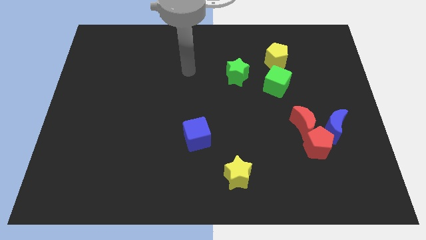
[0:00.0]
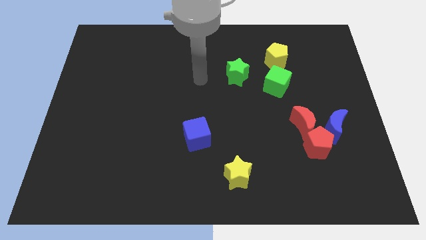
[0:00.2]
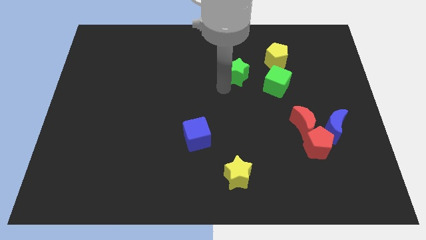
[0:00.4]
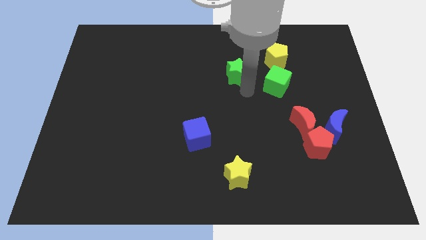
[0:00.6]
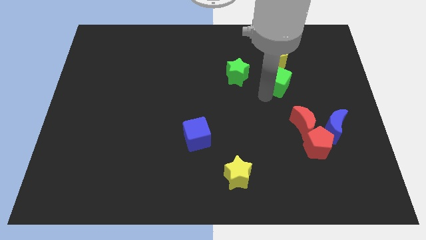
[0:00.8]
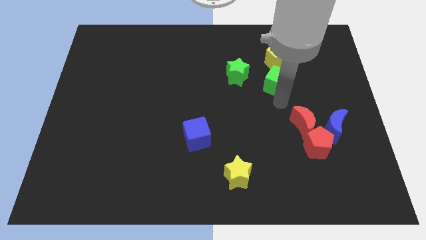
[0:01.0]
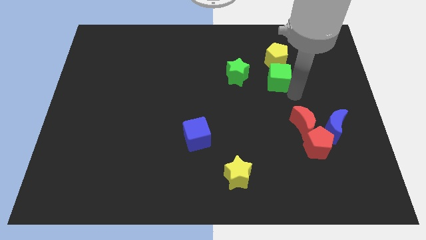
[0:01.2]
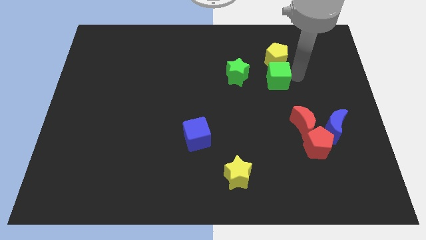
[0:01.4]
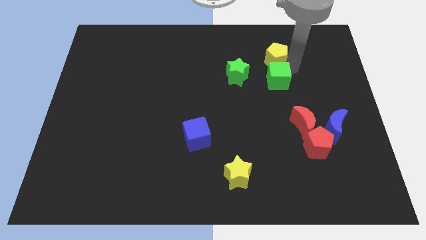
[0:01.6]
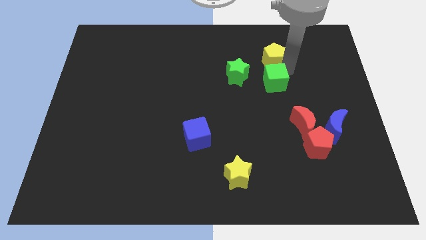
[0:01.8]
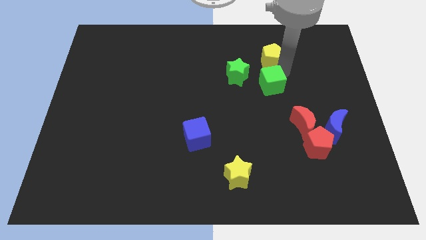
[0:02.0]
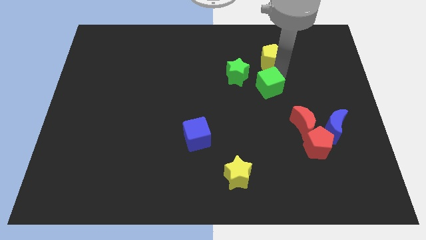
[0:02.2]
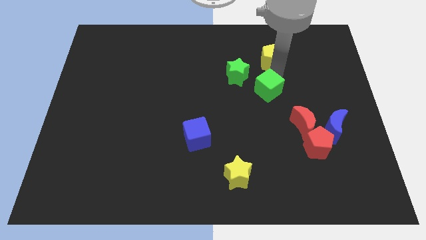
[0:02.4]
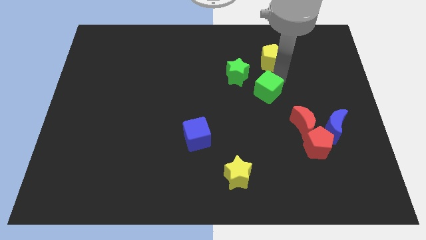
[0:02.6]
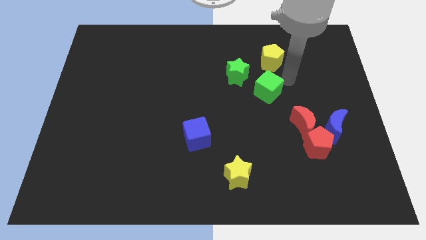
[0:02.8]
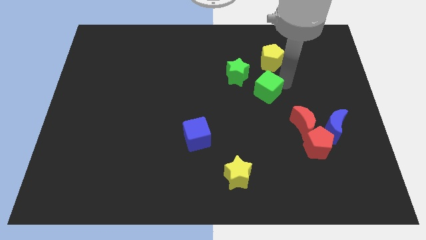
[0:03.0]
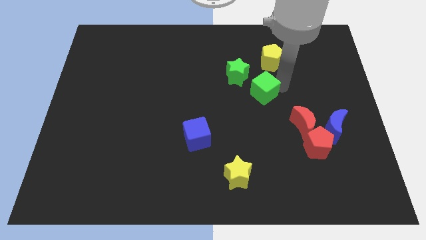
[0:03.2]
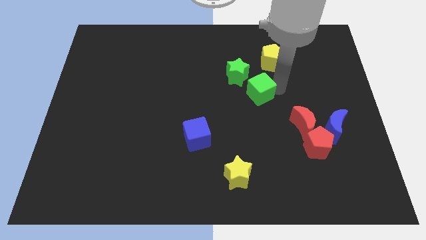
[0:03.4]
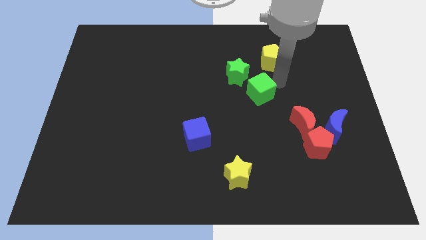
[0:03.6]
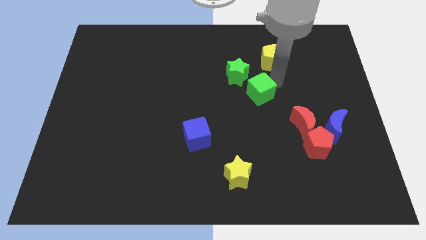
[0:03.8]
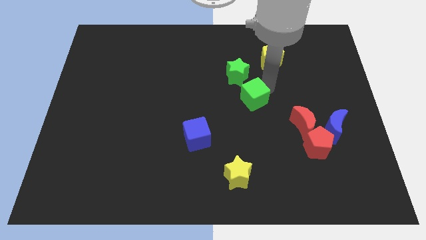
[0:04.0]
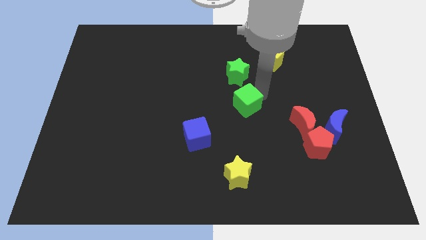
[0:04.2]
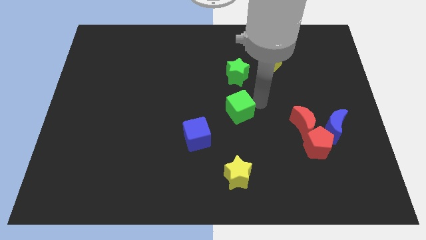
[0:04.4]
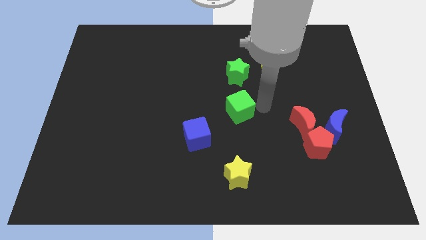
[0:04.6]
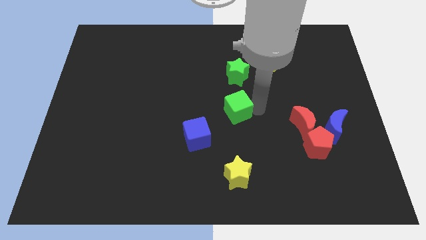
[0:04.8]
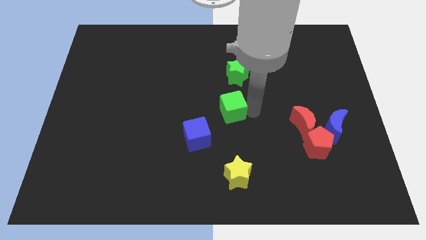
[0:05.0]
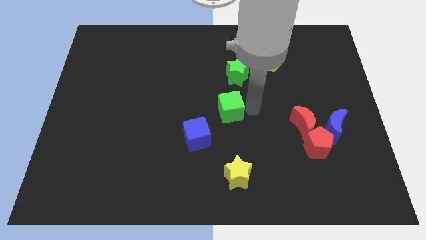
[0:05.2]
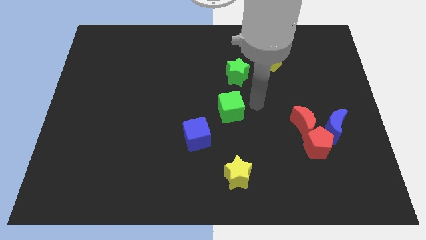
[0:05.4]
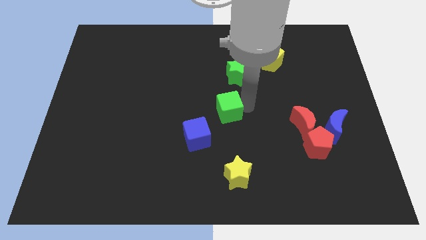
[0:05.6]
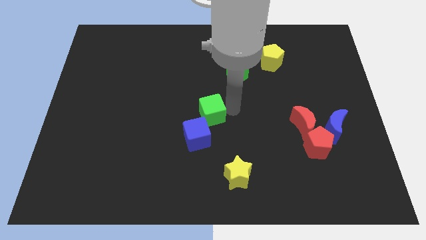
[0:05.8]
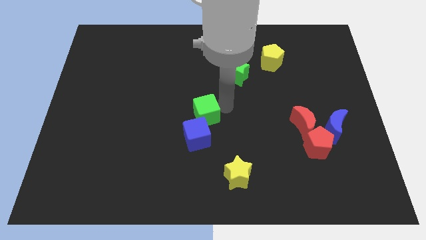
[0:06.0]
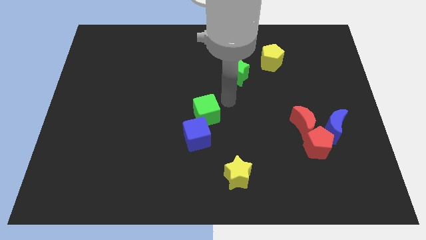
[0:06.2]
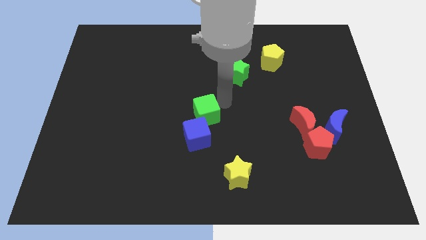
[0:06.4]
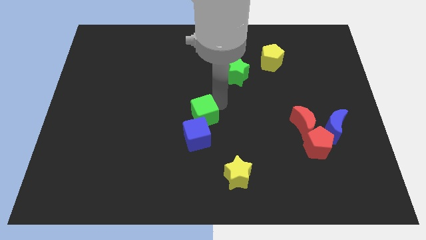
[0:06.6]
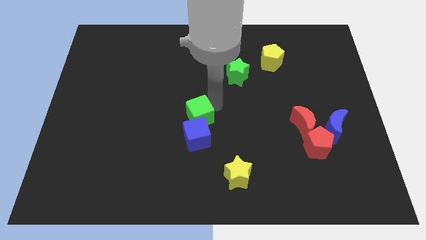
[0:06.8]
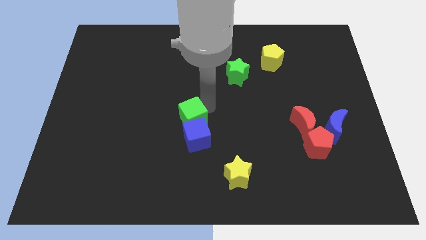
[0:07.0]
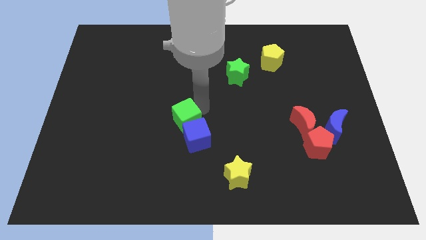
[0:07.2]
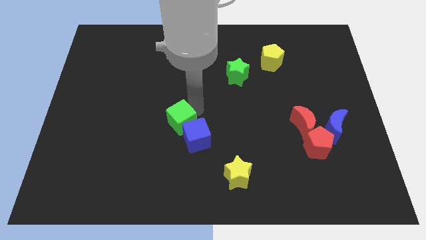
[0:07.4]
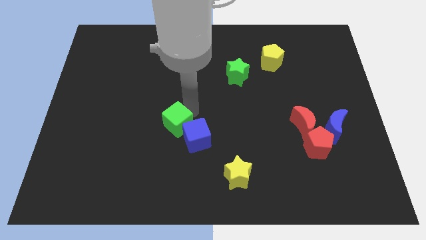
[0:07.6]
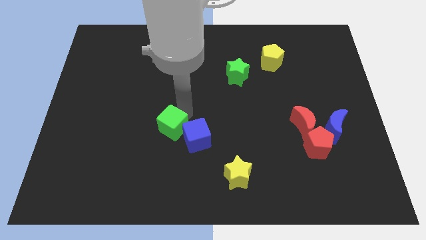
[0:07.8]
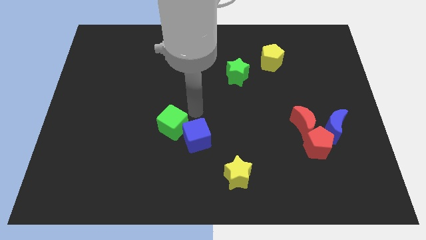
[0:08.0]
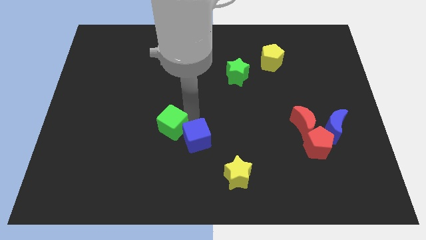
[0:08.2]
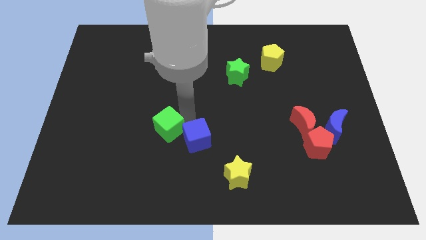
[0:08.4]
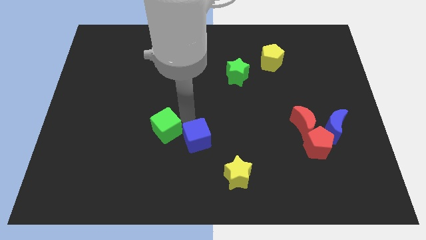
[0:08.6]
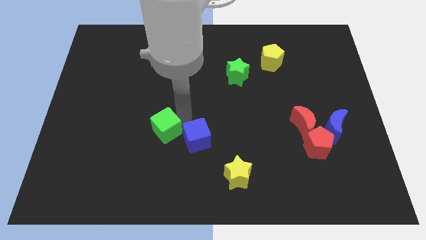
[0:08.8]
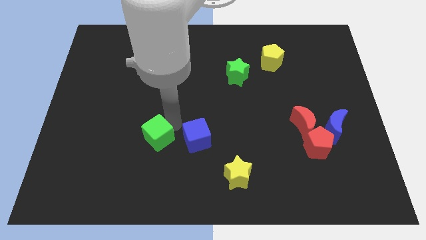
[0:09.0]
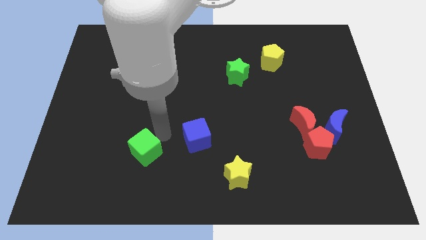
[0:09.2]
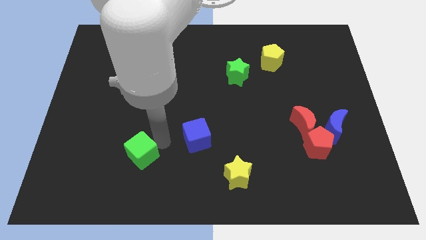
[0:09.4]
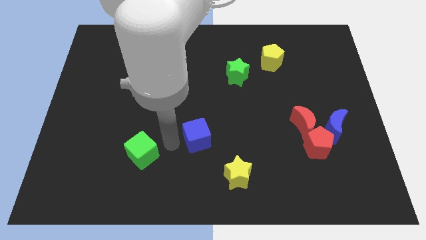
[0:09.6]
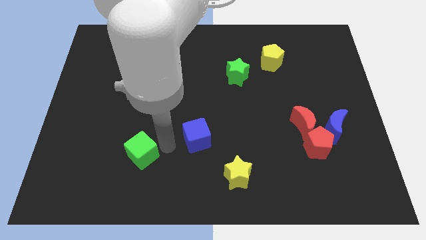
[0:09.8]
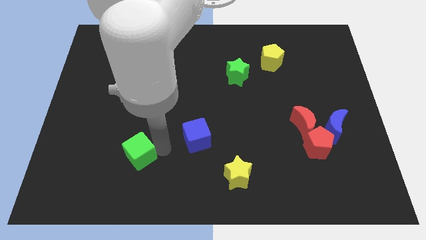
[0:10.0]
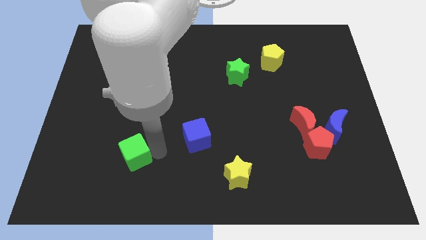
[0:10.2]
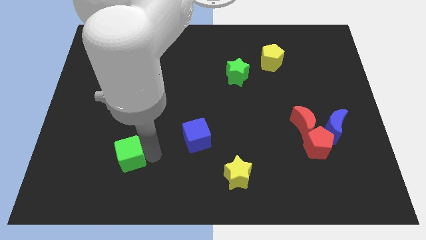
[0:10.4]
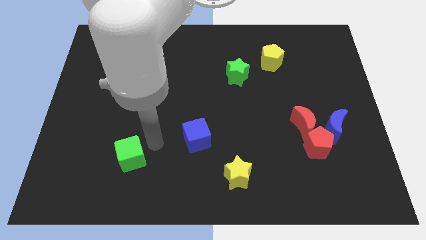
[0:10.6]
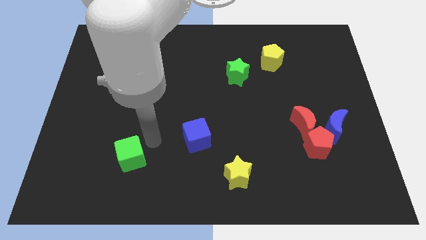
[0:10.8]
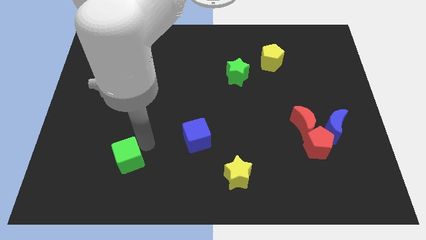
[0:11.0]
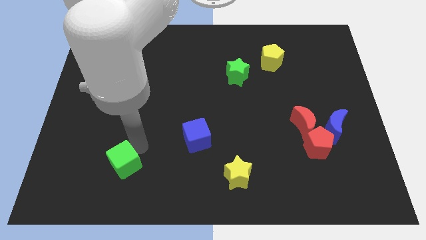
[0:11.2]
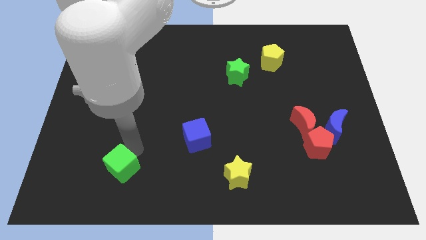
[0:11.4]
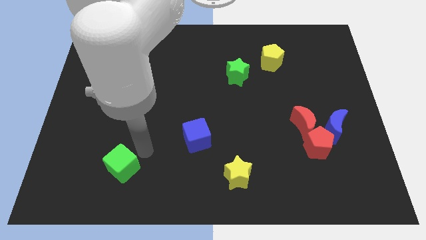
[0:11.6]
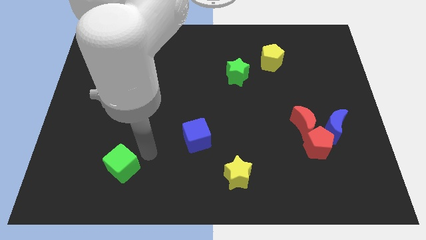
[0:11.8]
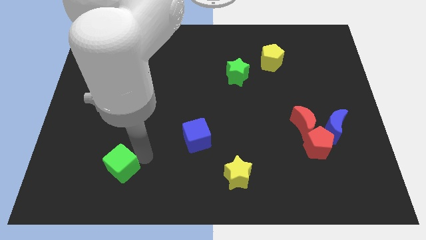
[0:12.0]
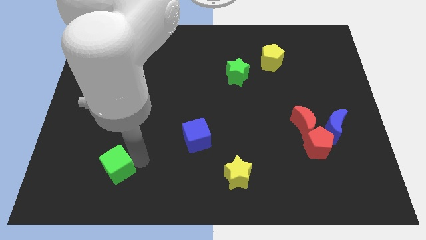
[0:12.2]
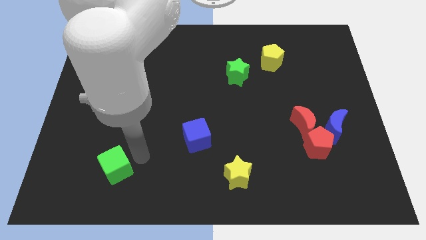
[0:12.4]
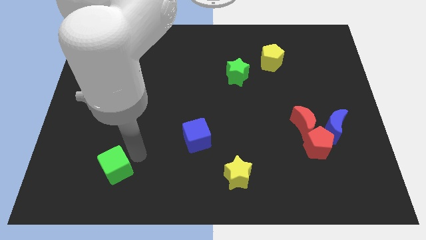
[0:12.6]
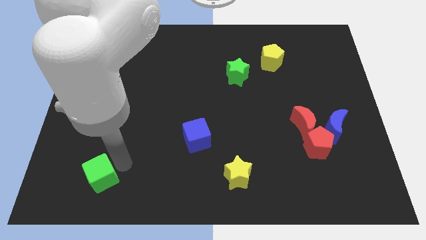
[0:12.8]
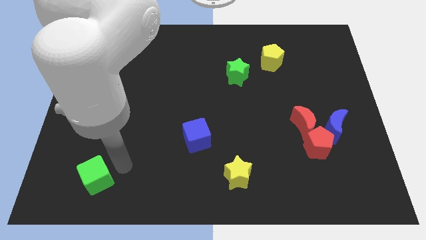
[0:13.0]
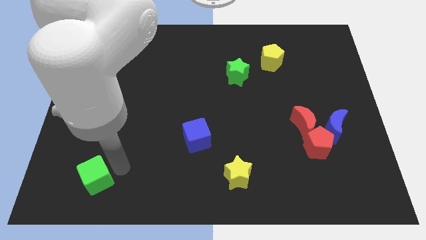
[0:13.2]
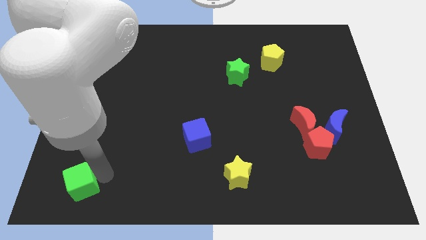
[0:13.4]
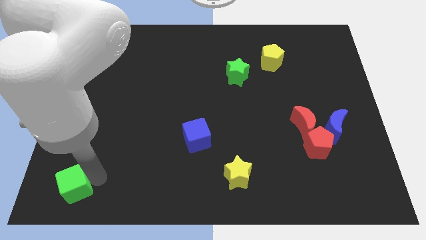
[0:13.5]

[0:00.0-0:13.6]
put the green cube to the bottom left of the board

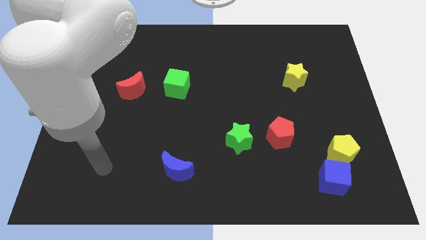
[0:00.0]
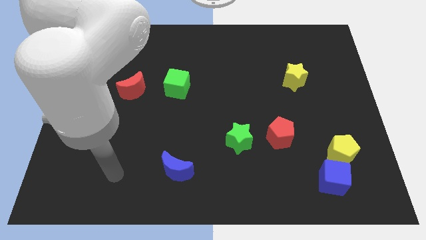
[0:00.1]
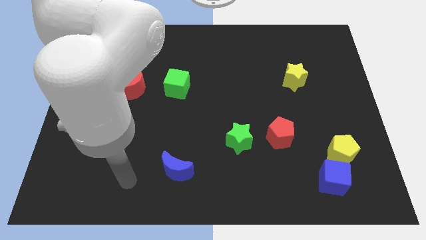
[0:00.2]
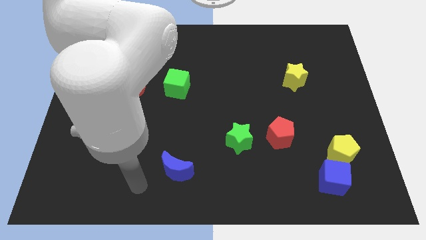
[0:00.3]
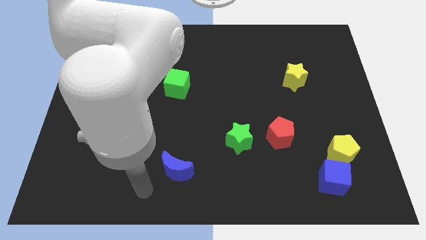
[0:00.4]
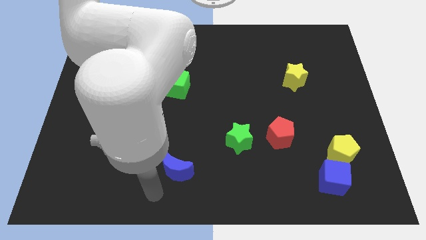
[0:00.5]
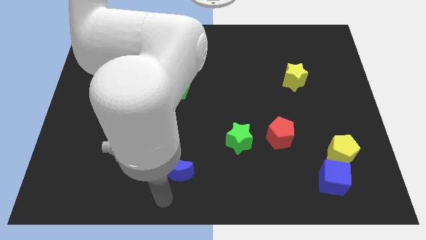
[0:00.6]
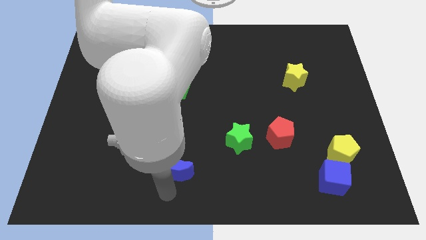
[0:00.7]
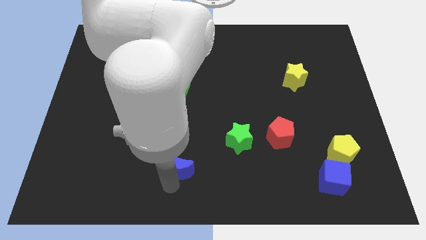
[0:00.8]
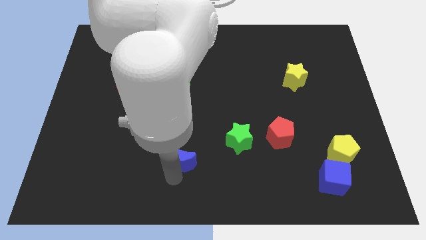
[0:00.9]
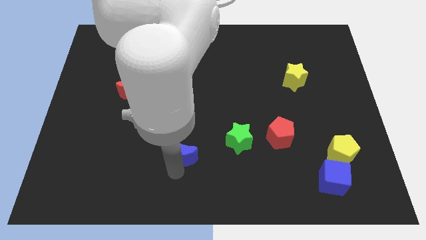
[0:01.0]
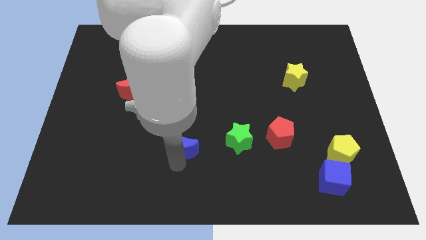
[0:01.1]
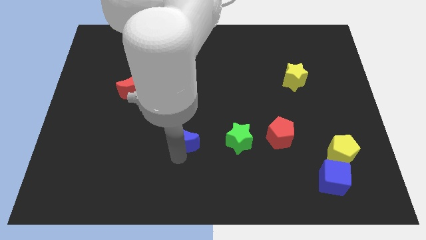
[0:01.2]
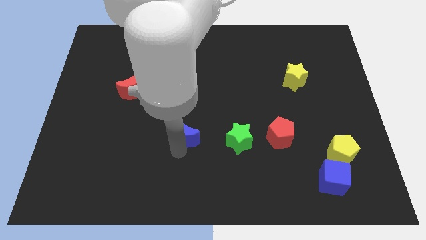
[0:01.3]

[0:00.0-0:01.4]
move the blue moon to the middle of the board
